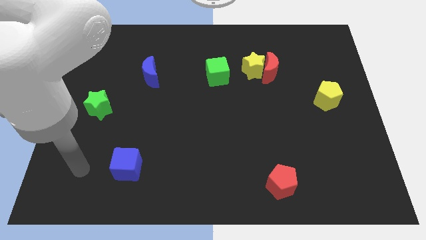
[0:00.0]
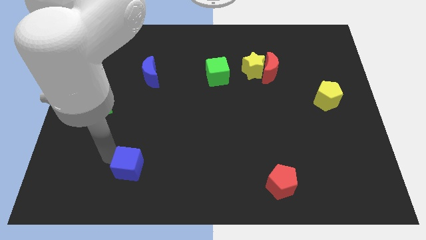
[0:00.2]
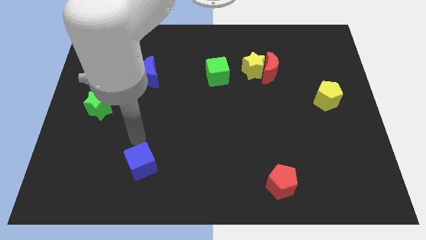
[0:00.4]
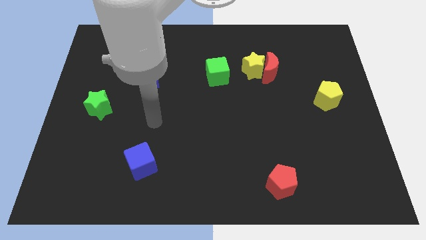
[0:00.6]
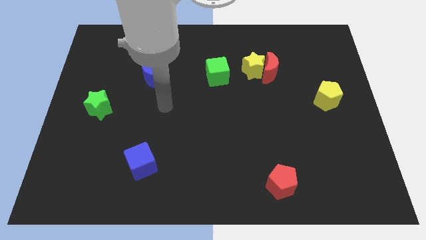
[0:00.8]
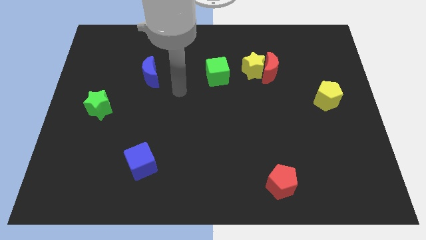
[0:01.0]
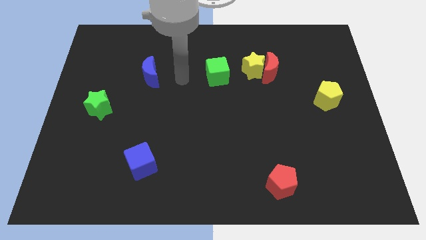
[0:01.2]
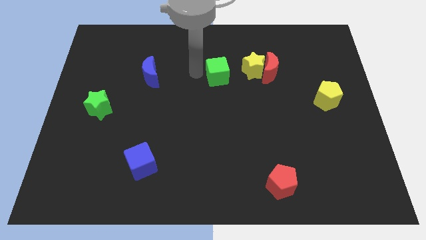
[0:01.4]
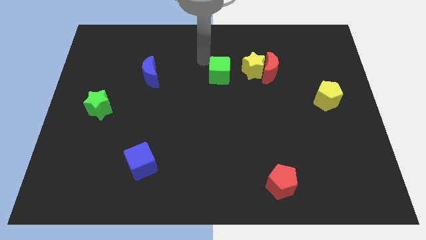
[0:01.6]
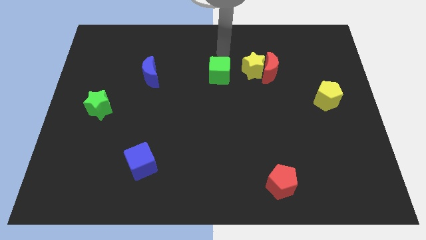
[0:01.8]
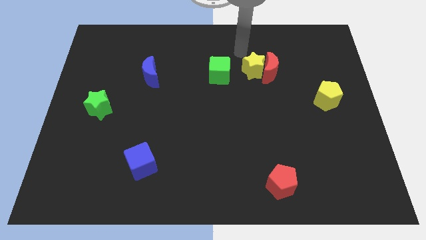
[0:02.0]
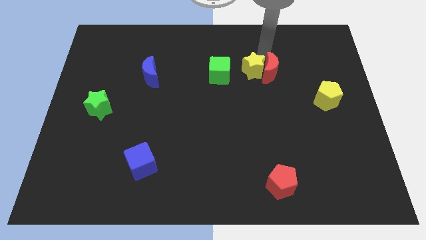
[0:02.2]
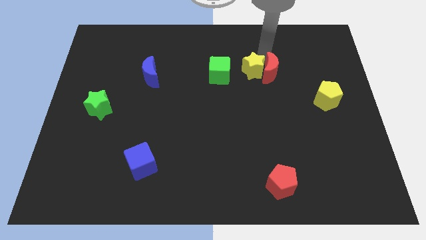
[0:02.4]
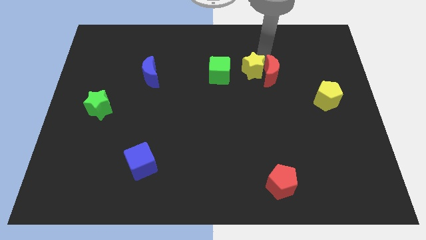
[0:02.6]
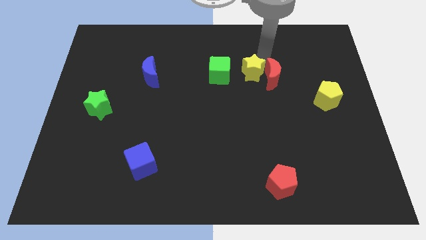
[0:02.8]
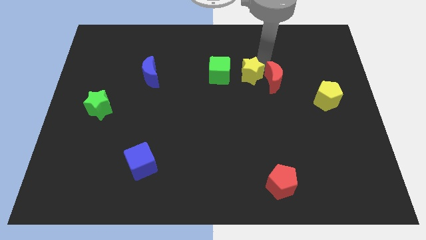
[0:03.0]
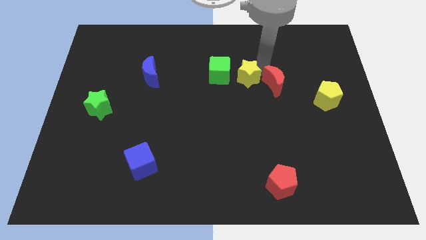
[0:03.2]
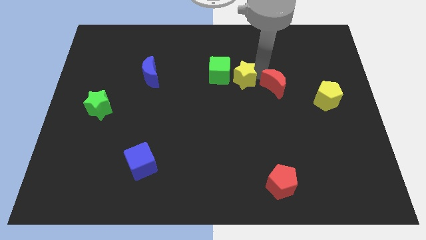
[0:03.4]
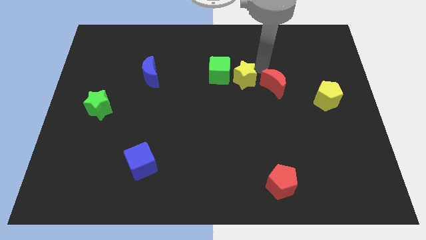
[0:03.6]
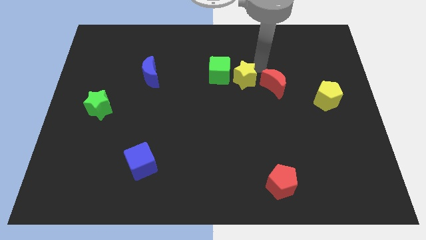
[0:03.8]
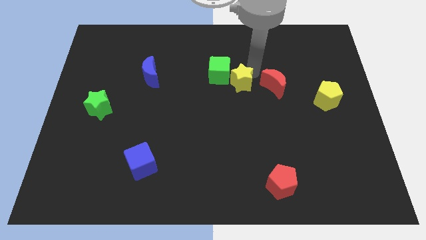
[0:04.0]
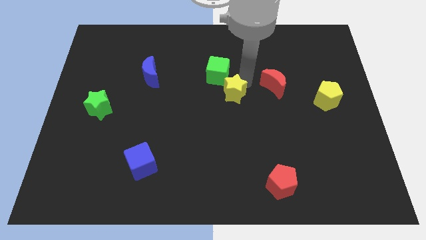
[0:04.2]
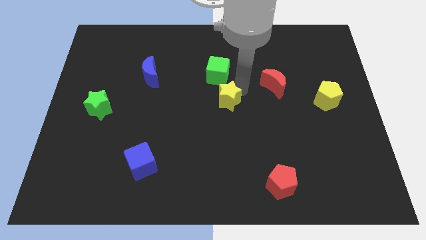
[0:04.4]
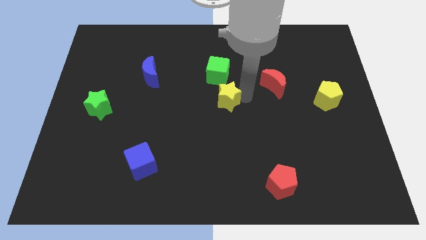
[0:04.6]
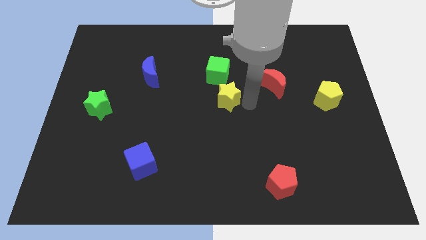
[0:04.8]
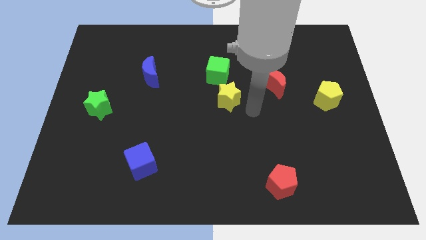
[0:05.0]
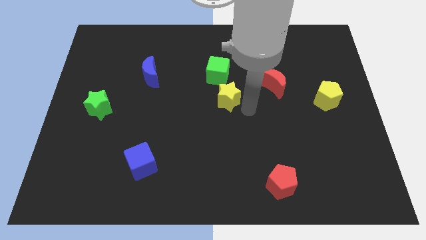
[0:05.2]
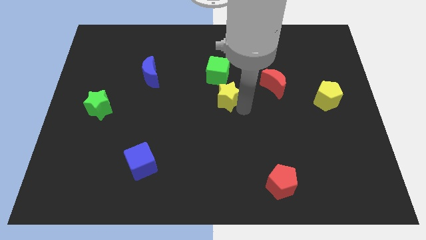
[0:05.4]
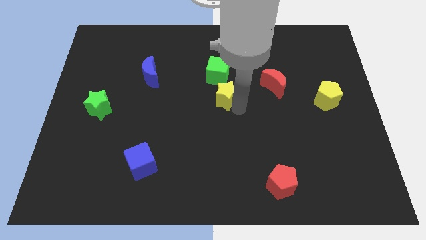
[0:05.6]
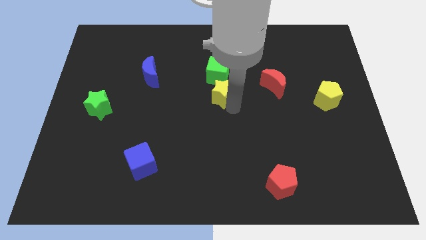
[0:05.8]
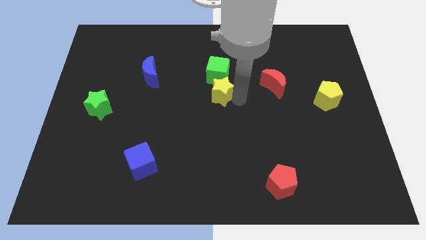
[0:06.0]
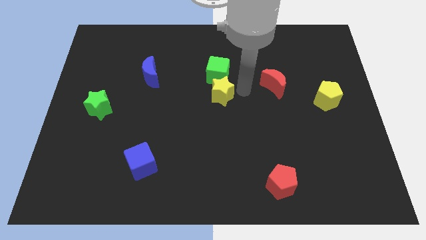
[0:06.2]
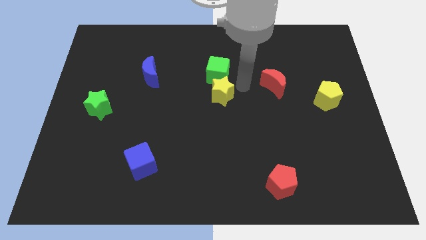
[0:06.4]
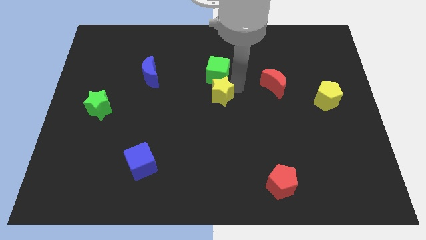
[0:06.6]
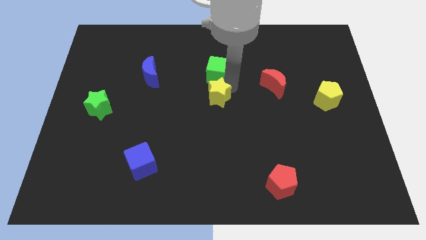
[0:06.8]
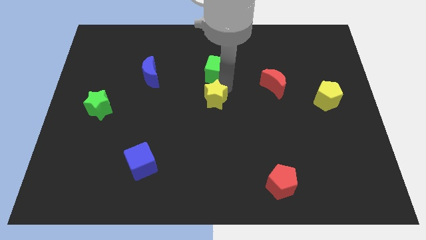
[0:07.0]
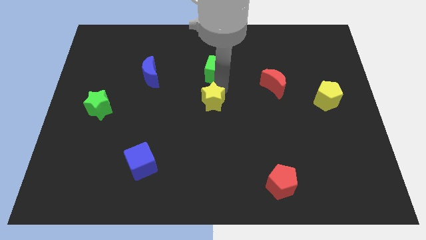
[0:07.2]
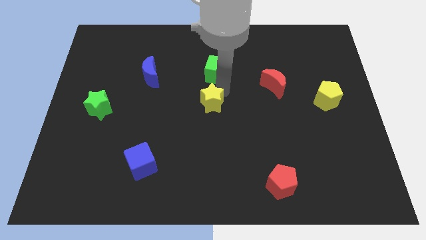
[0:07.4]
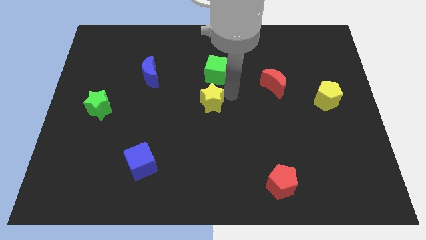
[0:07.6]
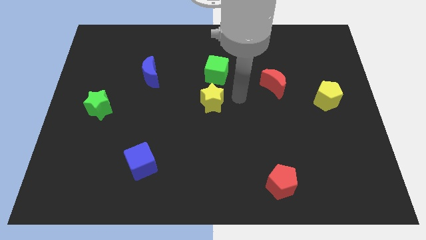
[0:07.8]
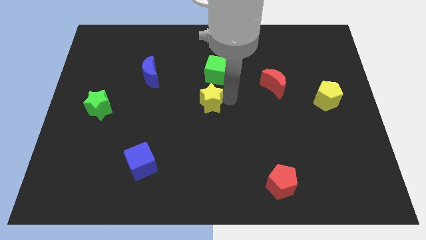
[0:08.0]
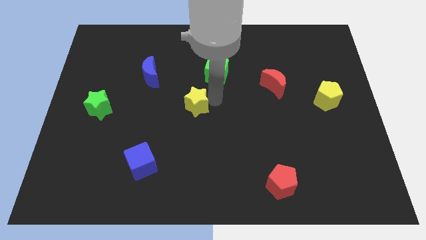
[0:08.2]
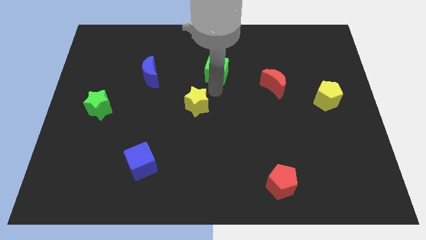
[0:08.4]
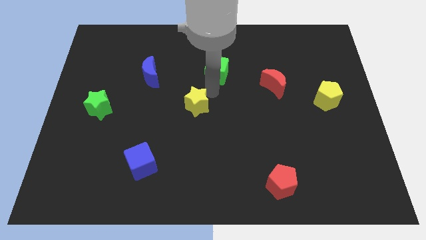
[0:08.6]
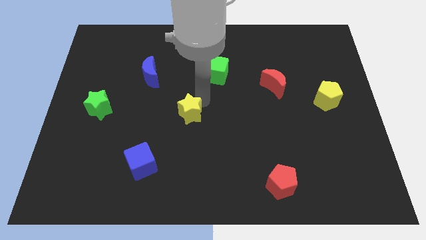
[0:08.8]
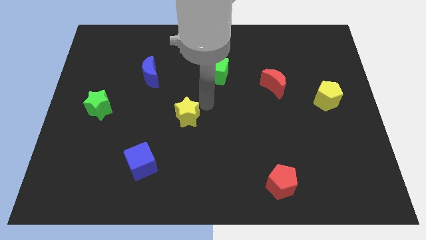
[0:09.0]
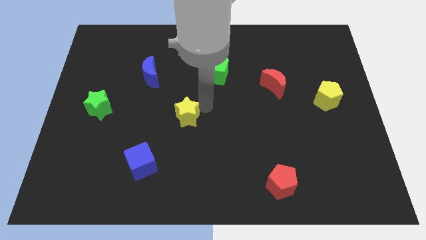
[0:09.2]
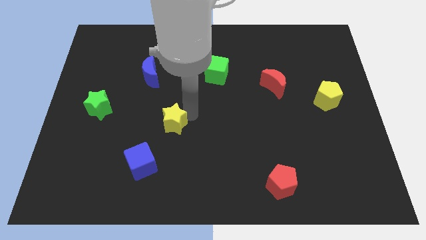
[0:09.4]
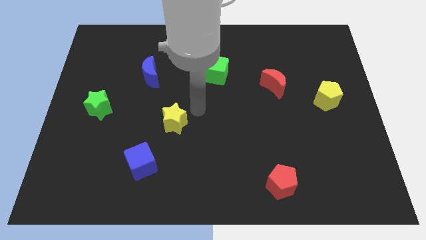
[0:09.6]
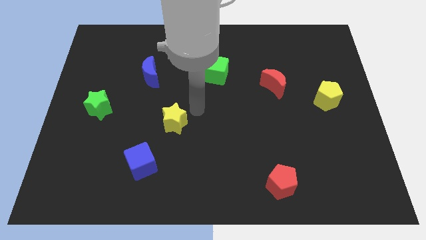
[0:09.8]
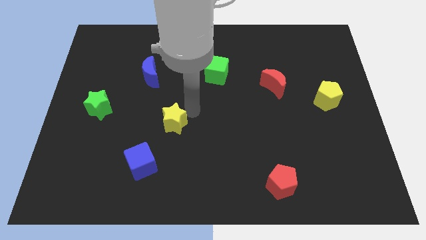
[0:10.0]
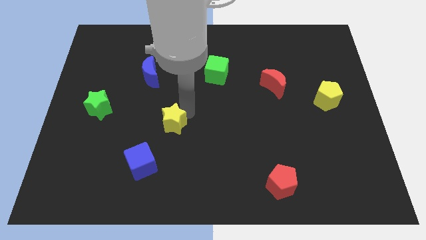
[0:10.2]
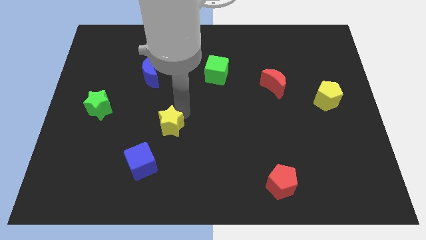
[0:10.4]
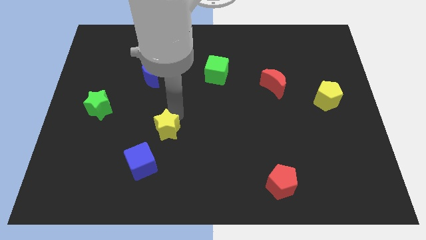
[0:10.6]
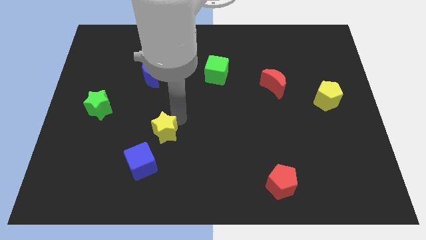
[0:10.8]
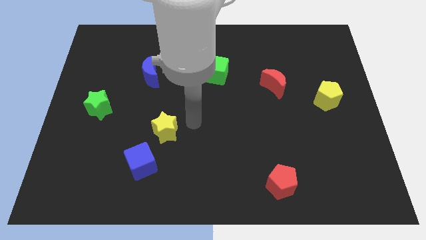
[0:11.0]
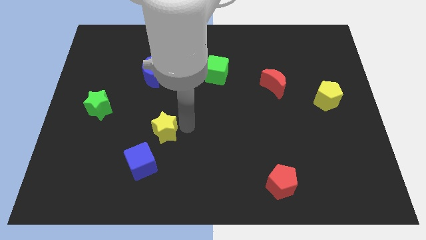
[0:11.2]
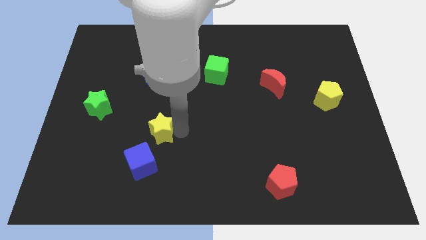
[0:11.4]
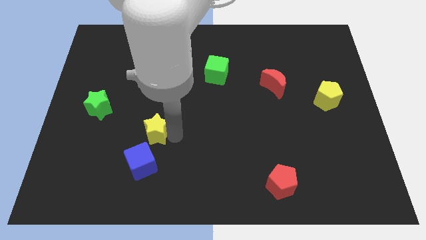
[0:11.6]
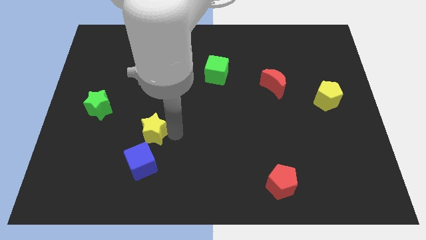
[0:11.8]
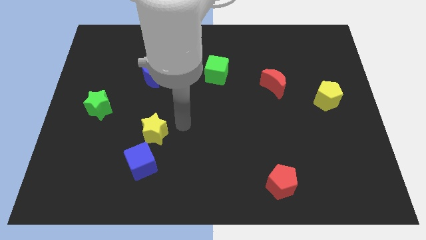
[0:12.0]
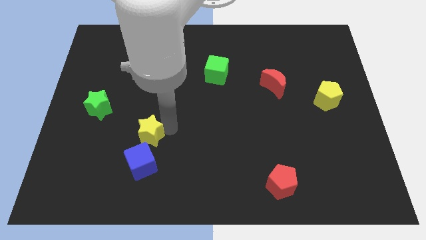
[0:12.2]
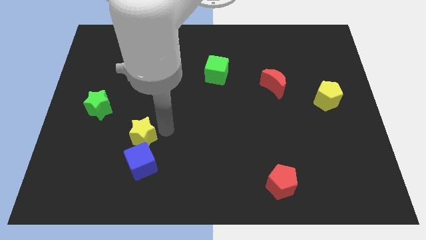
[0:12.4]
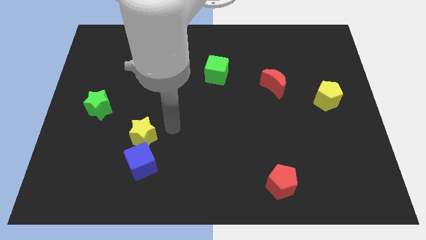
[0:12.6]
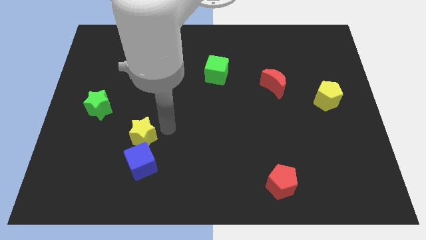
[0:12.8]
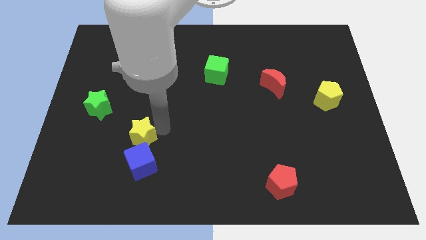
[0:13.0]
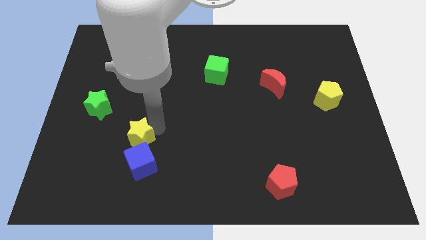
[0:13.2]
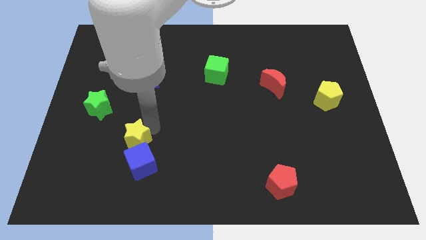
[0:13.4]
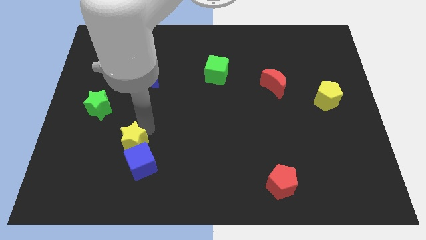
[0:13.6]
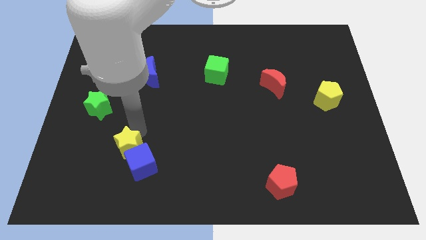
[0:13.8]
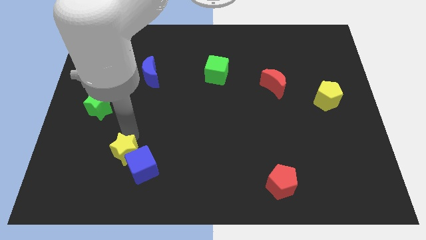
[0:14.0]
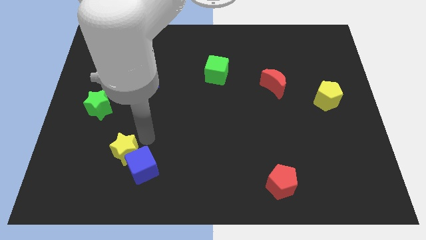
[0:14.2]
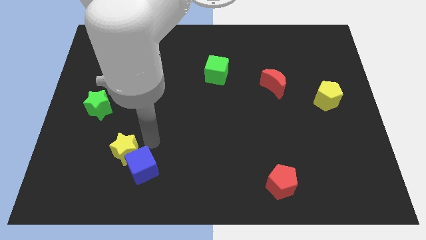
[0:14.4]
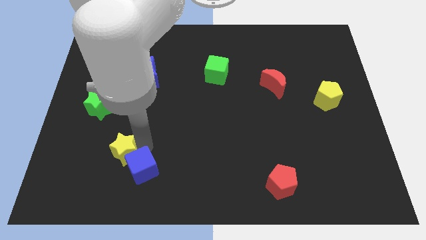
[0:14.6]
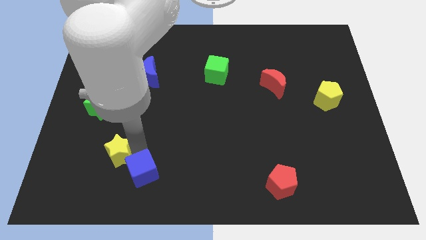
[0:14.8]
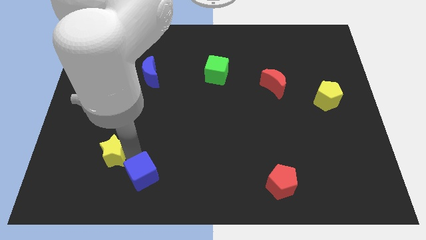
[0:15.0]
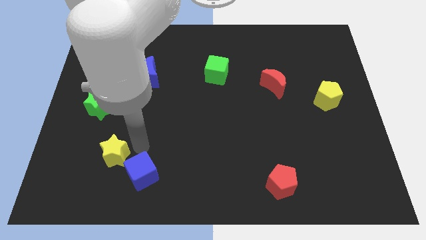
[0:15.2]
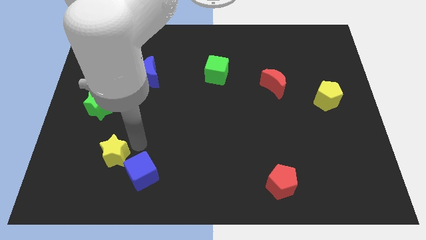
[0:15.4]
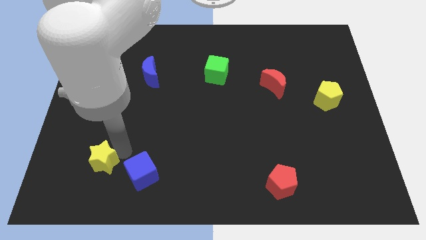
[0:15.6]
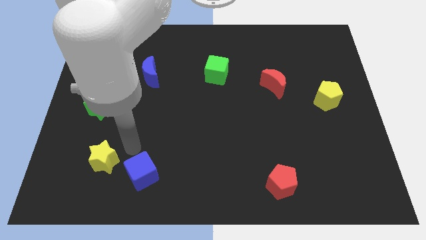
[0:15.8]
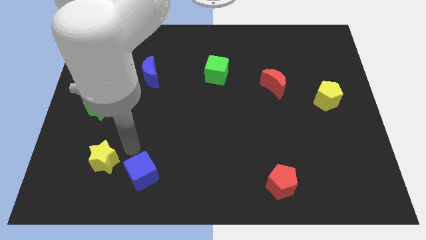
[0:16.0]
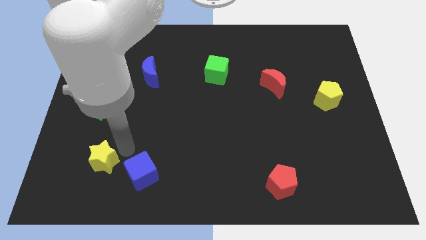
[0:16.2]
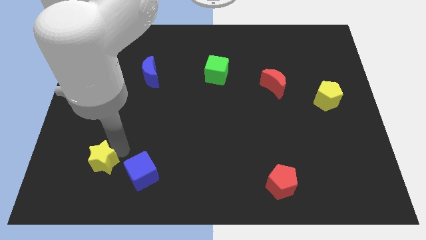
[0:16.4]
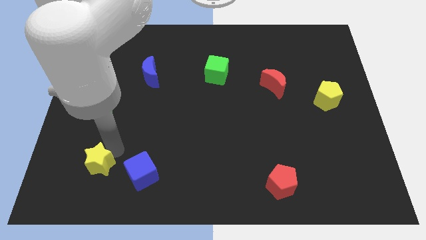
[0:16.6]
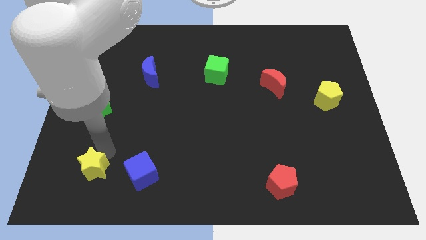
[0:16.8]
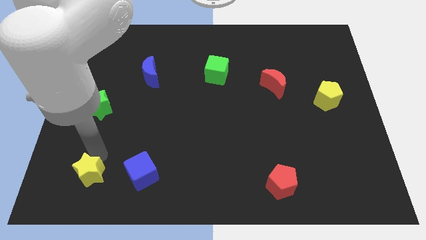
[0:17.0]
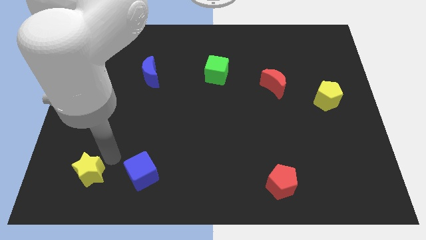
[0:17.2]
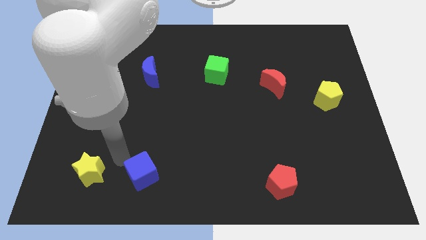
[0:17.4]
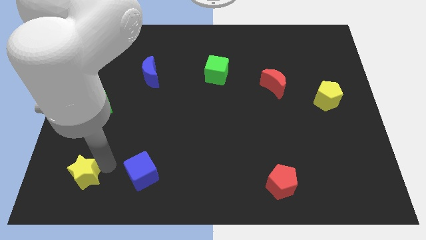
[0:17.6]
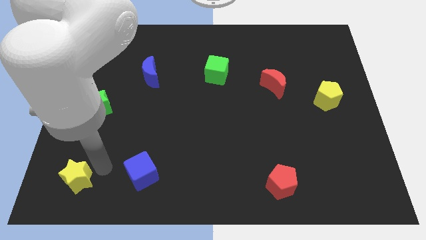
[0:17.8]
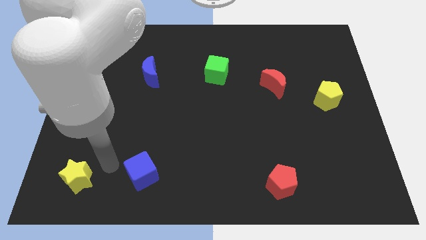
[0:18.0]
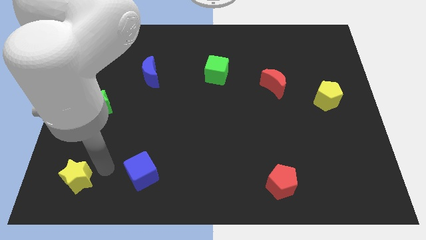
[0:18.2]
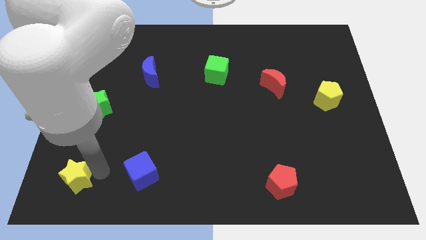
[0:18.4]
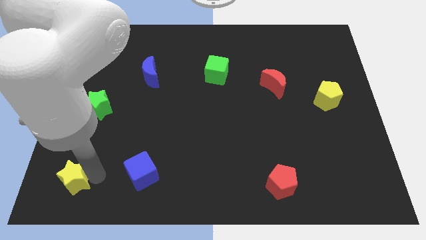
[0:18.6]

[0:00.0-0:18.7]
slide the yellow star to the lower left corner
